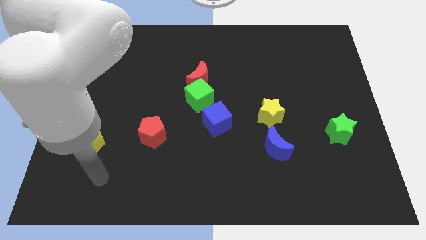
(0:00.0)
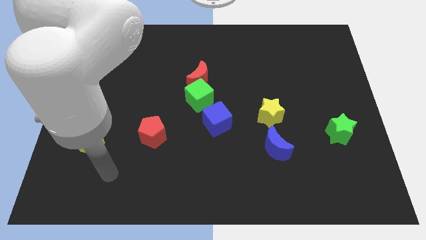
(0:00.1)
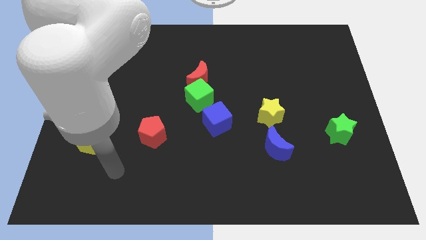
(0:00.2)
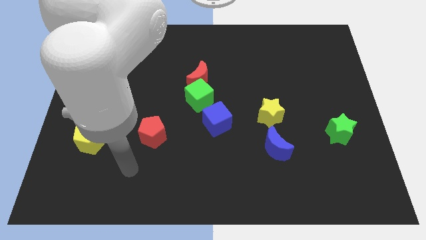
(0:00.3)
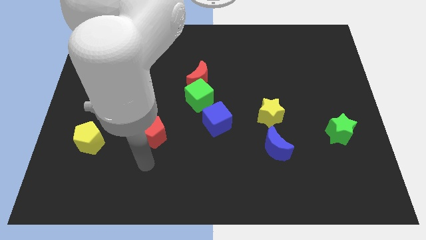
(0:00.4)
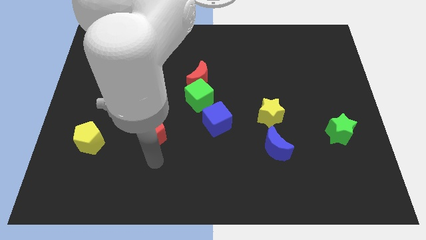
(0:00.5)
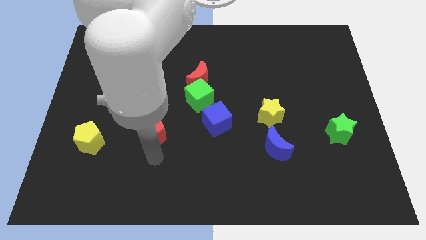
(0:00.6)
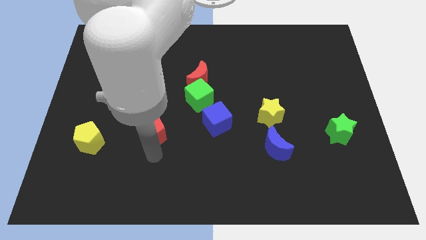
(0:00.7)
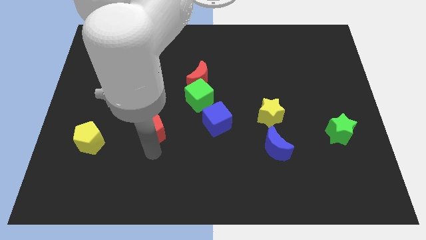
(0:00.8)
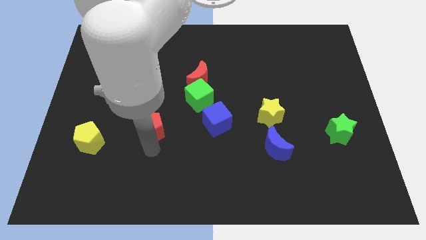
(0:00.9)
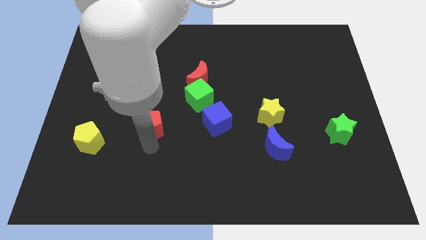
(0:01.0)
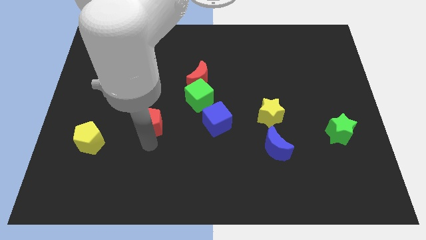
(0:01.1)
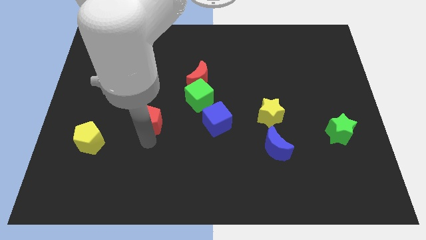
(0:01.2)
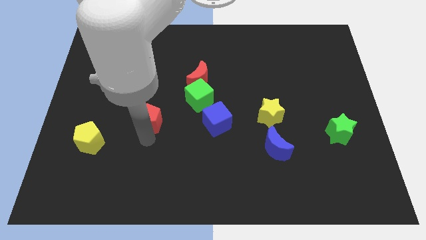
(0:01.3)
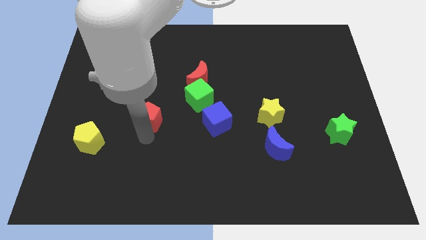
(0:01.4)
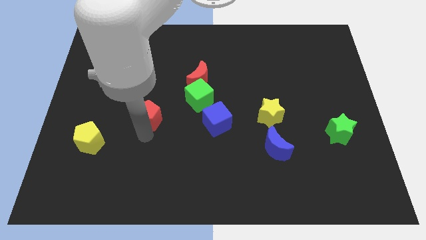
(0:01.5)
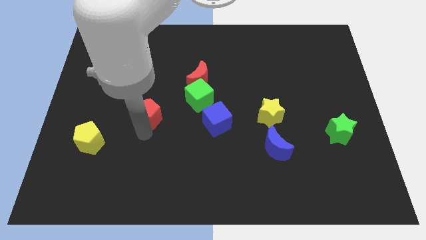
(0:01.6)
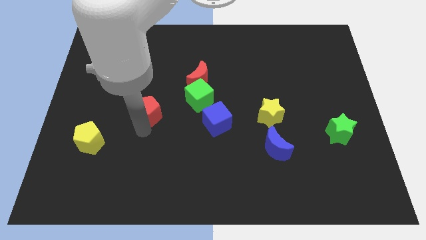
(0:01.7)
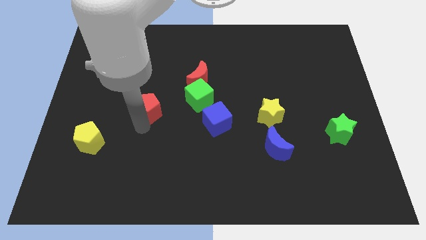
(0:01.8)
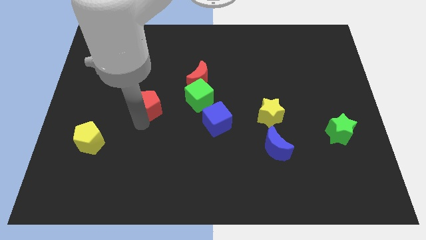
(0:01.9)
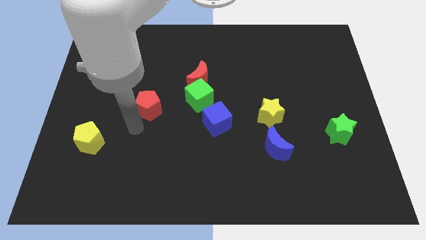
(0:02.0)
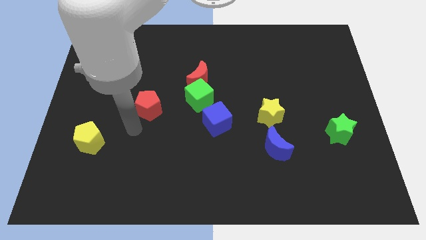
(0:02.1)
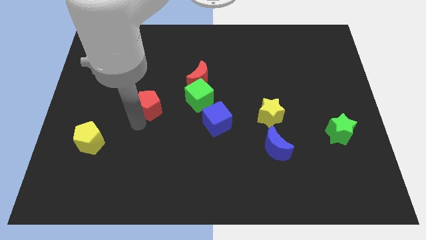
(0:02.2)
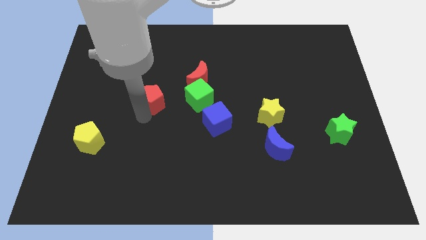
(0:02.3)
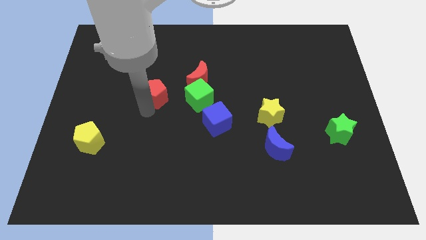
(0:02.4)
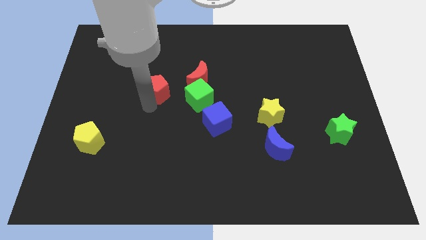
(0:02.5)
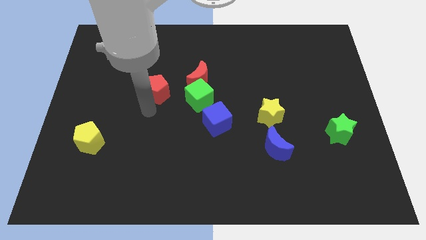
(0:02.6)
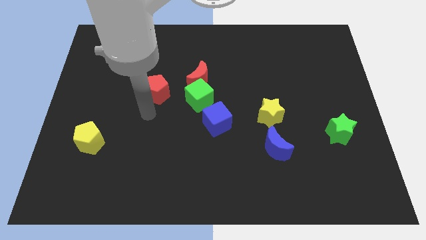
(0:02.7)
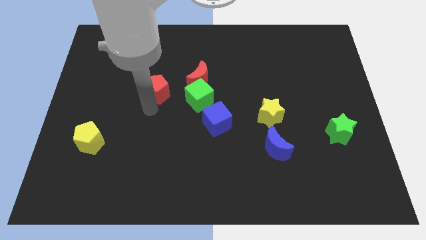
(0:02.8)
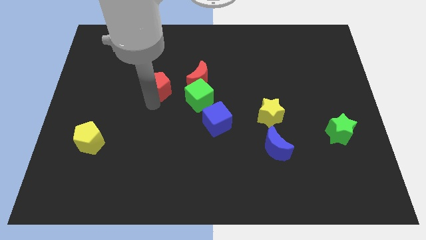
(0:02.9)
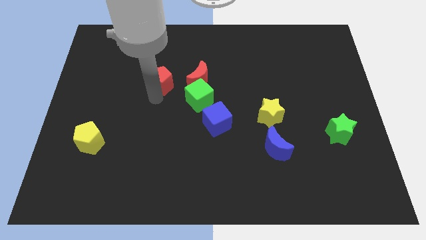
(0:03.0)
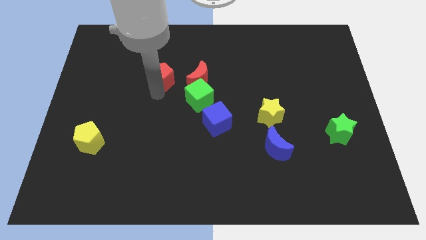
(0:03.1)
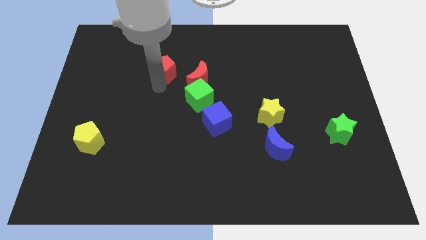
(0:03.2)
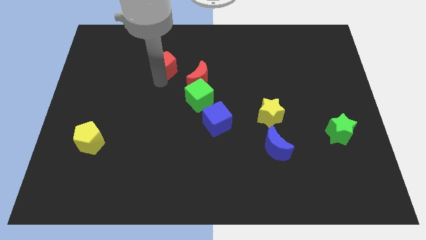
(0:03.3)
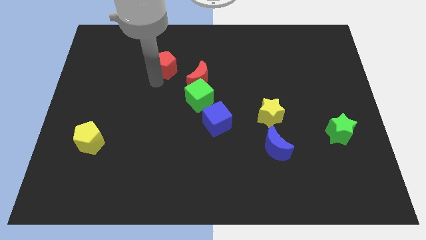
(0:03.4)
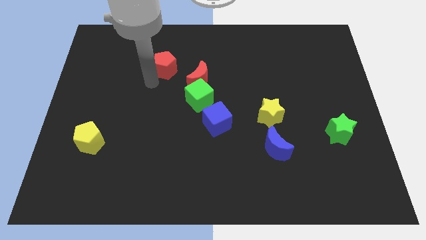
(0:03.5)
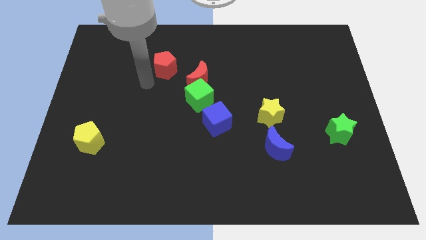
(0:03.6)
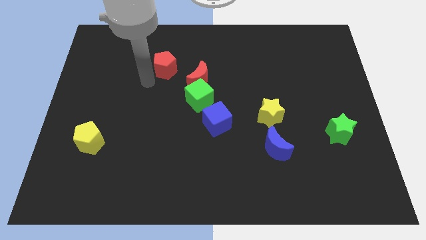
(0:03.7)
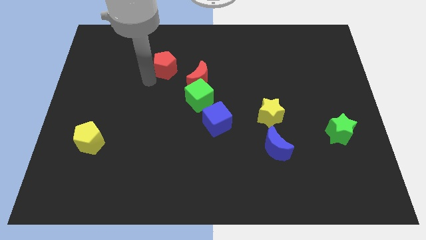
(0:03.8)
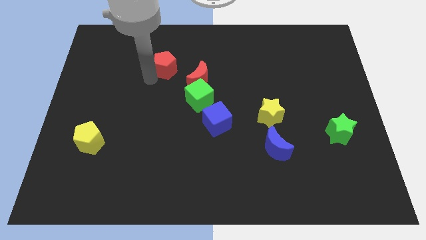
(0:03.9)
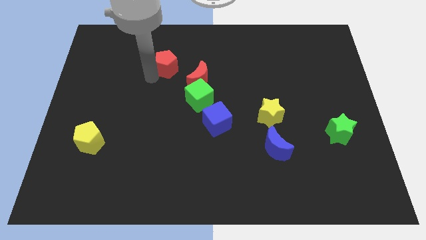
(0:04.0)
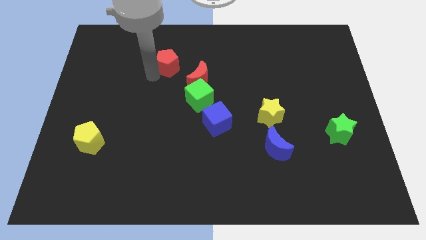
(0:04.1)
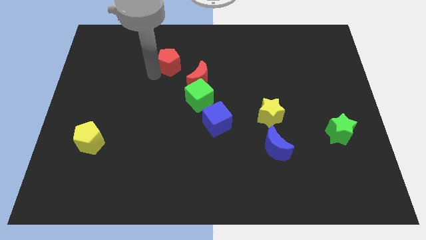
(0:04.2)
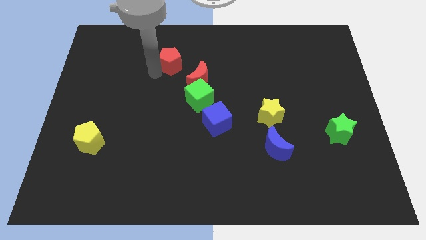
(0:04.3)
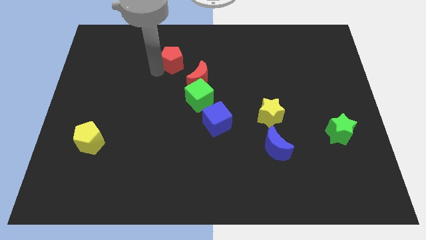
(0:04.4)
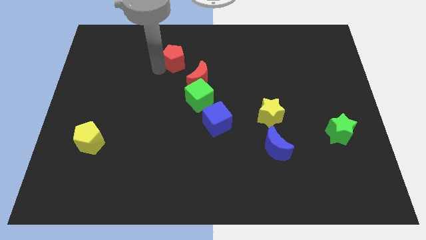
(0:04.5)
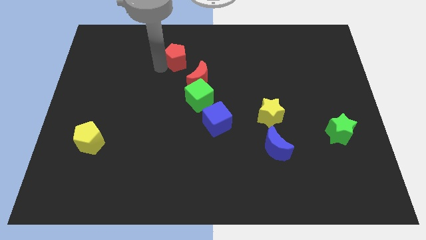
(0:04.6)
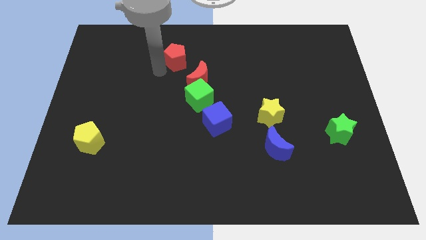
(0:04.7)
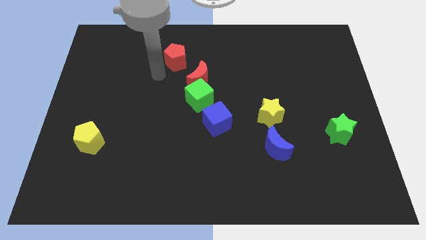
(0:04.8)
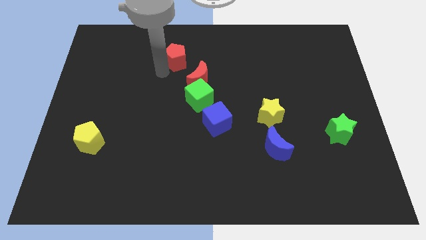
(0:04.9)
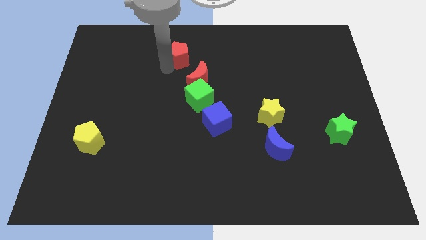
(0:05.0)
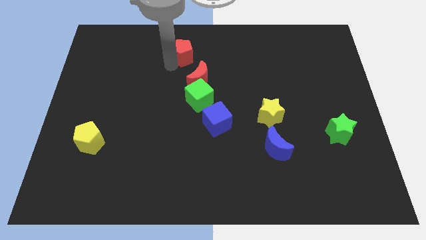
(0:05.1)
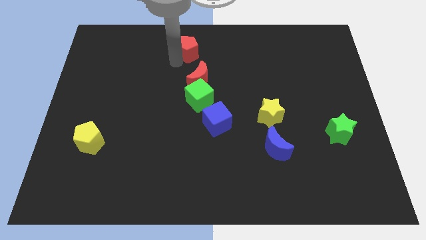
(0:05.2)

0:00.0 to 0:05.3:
slide the red pentagon to the towards your base

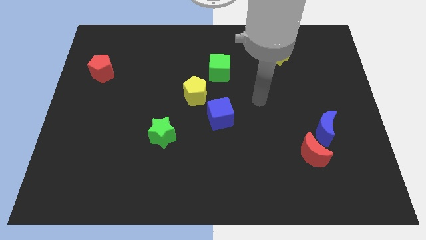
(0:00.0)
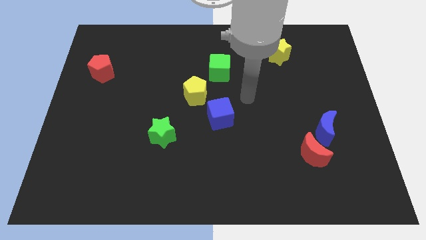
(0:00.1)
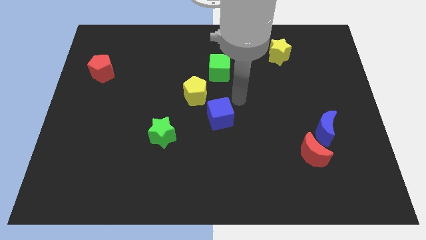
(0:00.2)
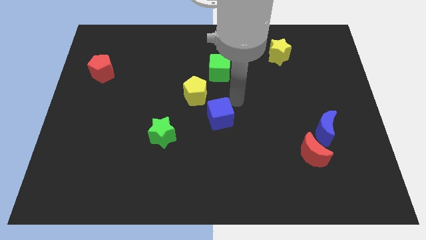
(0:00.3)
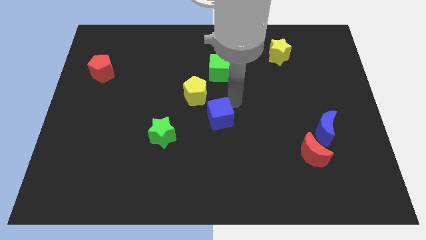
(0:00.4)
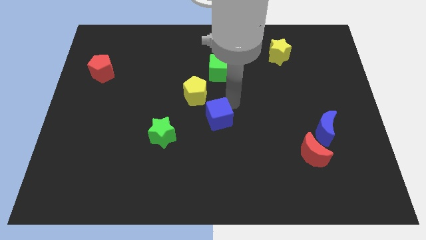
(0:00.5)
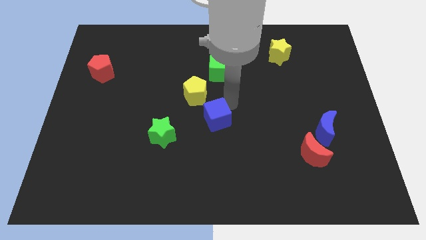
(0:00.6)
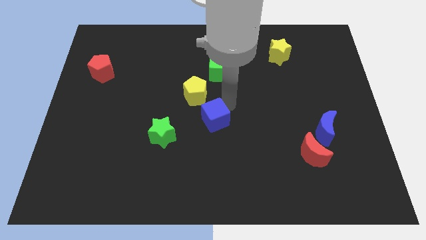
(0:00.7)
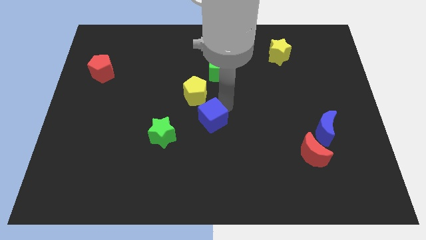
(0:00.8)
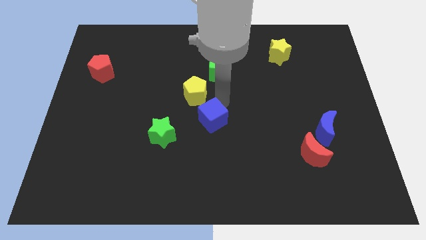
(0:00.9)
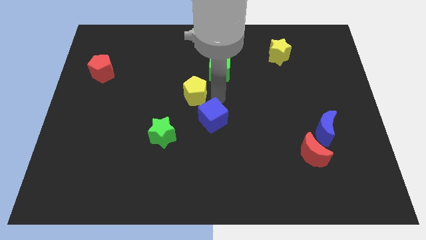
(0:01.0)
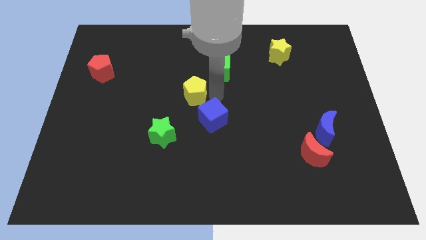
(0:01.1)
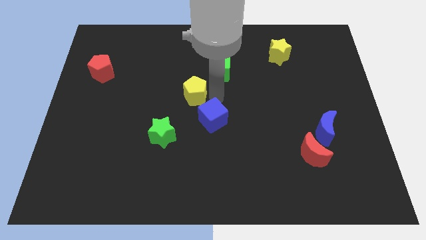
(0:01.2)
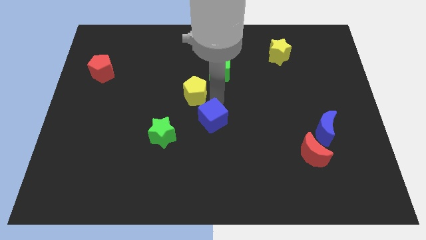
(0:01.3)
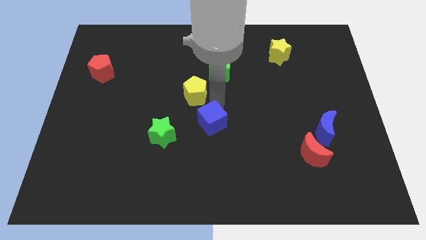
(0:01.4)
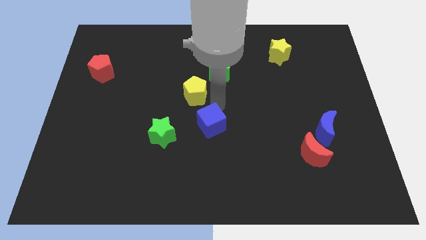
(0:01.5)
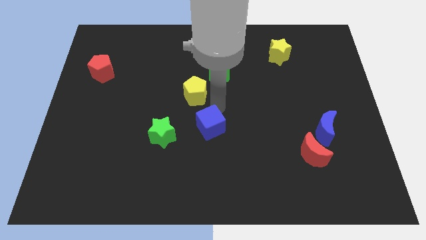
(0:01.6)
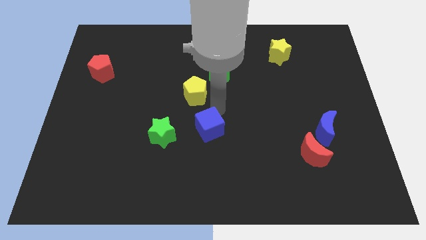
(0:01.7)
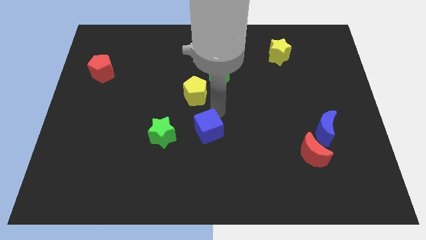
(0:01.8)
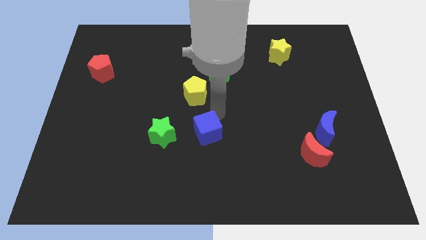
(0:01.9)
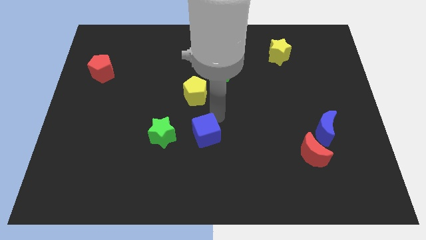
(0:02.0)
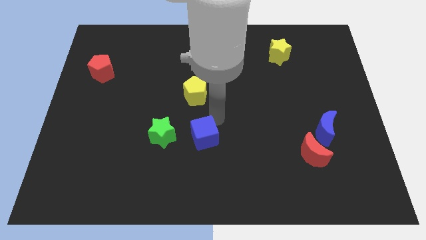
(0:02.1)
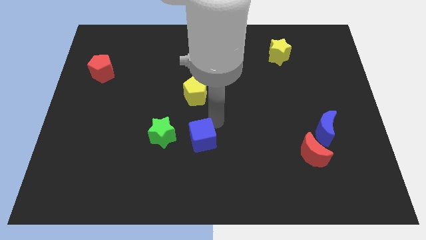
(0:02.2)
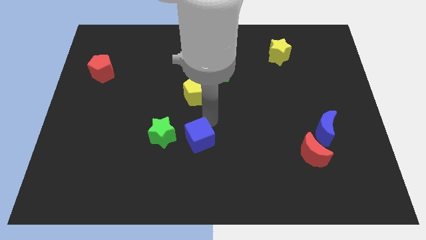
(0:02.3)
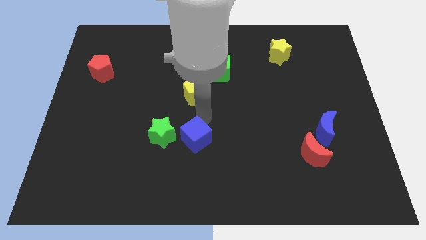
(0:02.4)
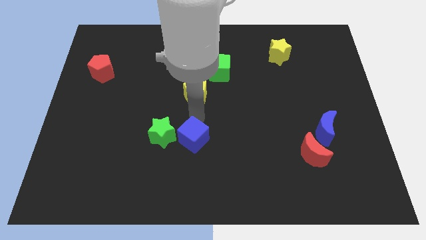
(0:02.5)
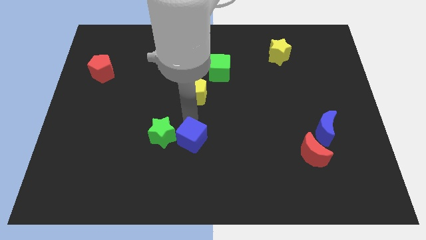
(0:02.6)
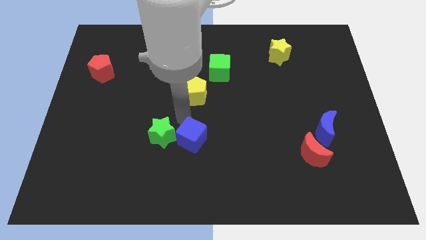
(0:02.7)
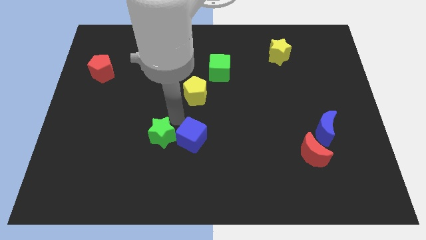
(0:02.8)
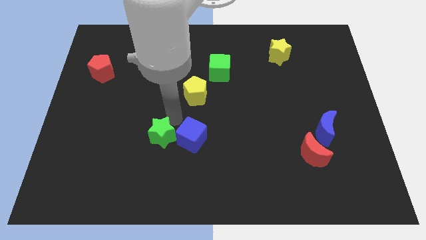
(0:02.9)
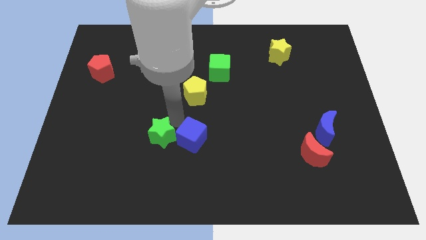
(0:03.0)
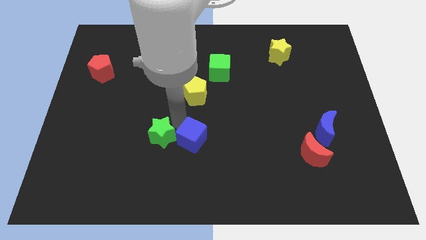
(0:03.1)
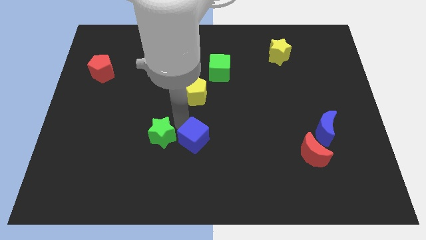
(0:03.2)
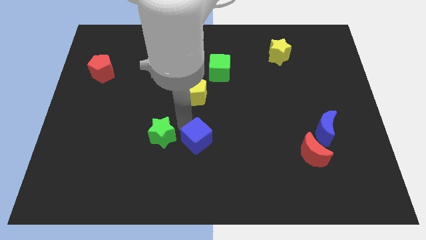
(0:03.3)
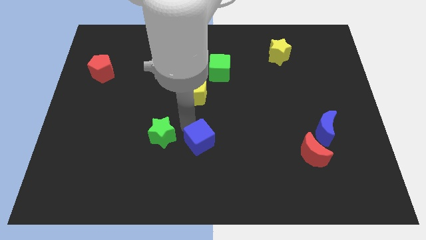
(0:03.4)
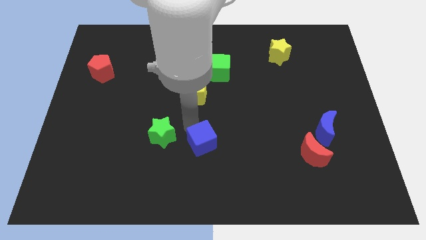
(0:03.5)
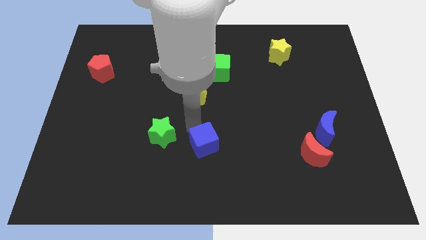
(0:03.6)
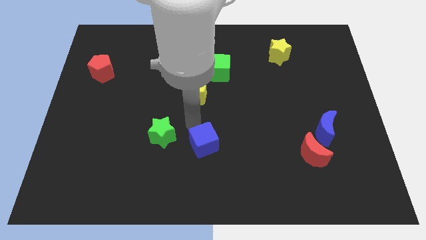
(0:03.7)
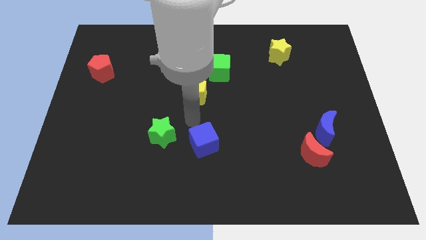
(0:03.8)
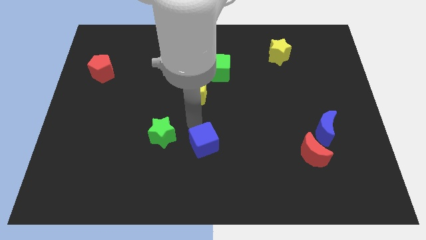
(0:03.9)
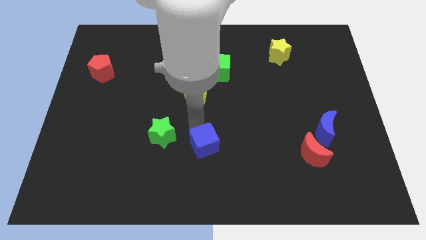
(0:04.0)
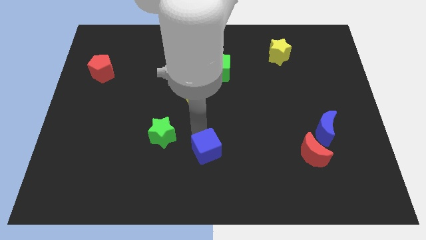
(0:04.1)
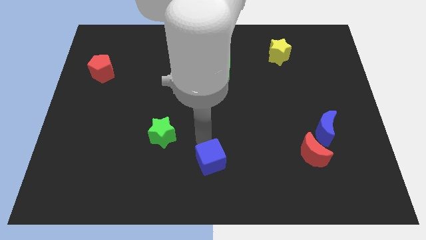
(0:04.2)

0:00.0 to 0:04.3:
move the blue cube to the bottom
